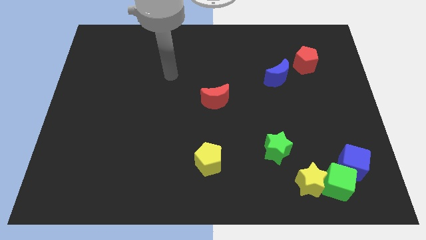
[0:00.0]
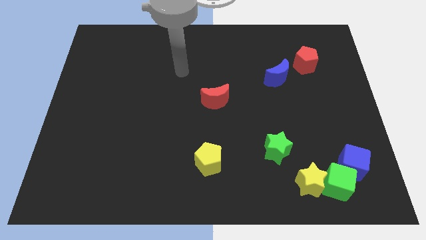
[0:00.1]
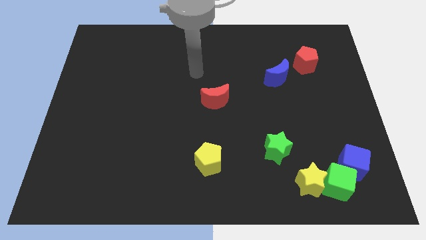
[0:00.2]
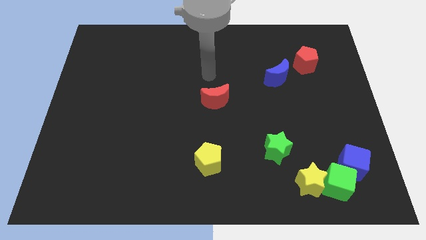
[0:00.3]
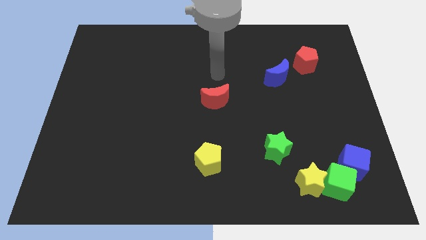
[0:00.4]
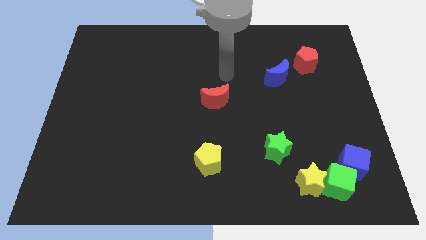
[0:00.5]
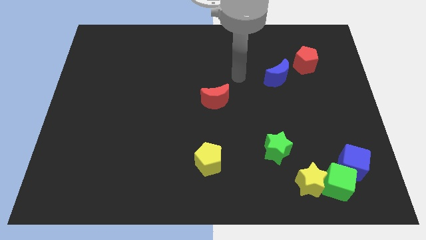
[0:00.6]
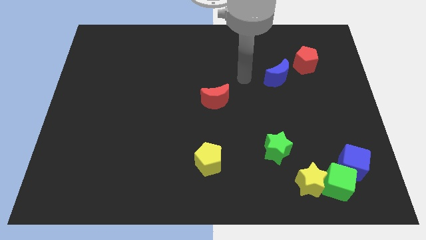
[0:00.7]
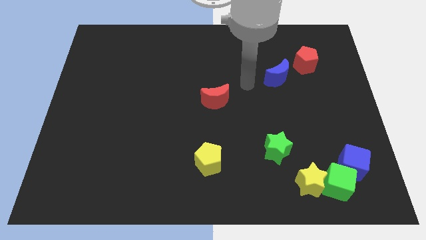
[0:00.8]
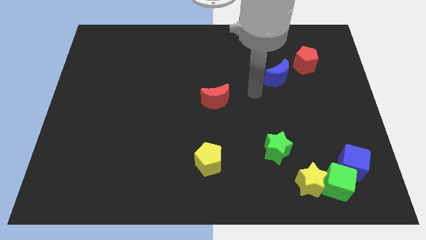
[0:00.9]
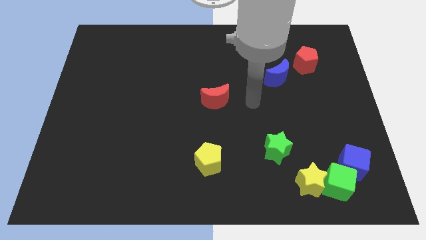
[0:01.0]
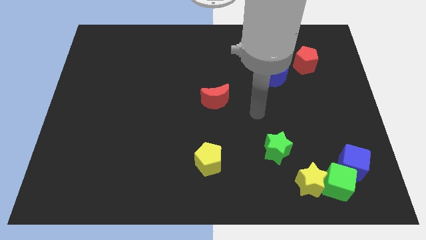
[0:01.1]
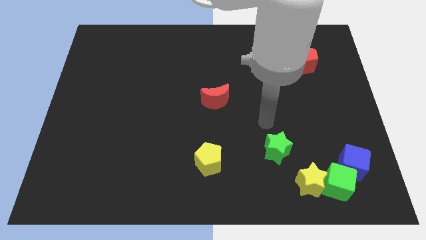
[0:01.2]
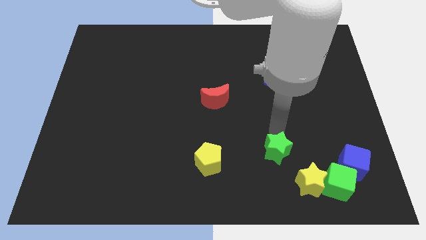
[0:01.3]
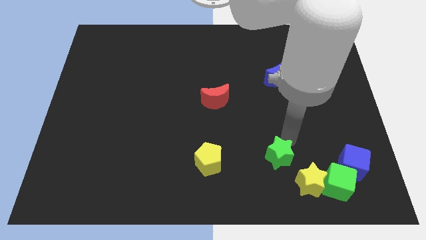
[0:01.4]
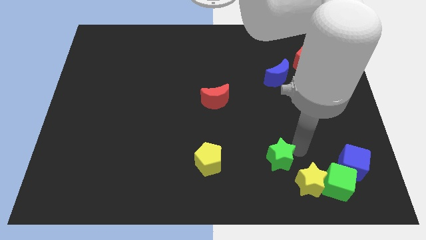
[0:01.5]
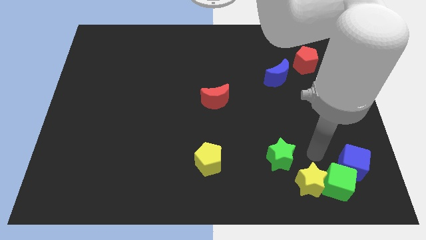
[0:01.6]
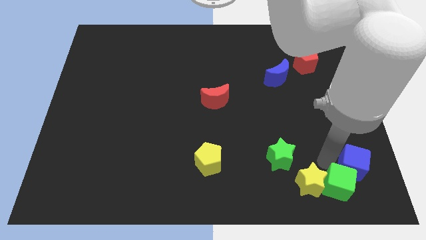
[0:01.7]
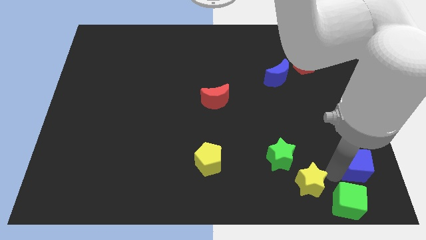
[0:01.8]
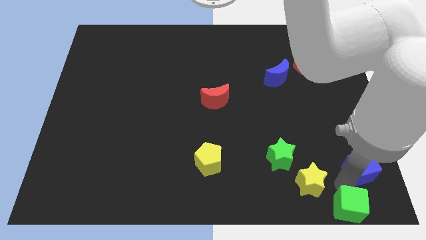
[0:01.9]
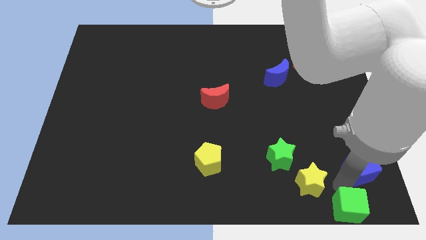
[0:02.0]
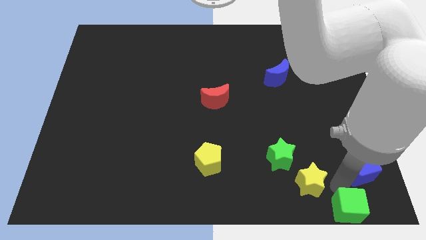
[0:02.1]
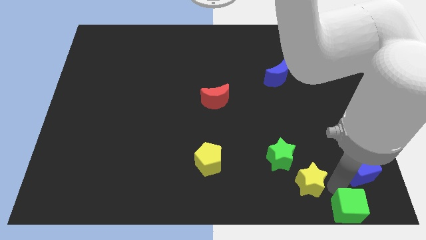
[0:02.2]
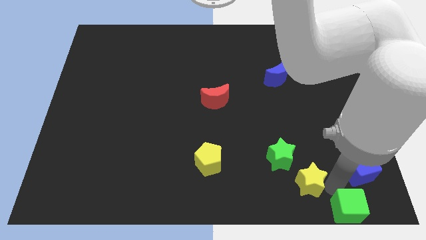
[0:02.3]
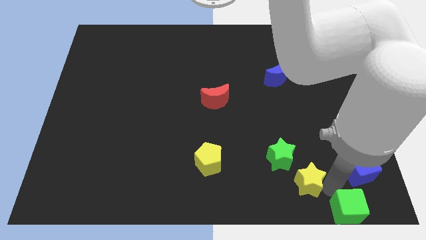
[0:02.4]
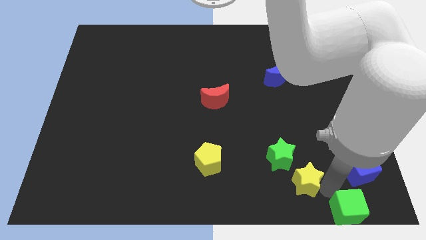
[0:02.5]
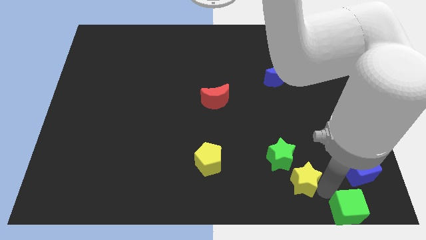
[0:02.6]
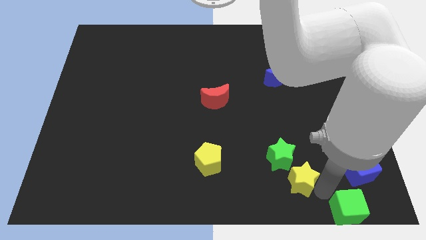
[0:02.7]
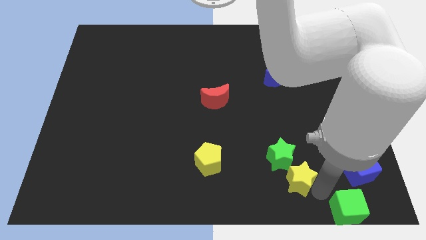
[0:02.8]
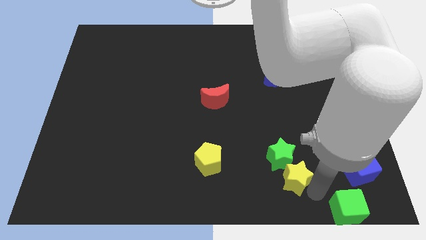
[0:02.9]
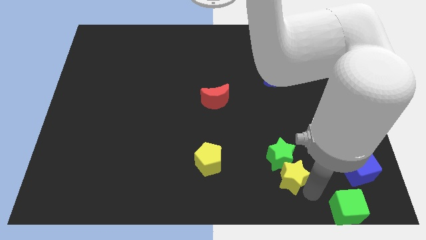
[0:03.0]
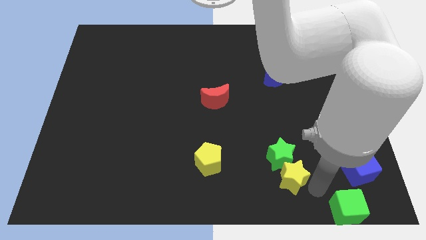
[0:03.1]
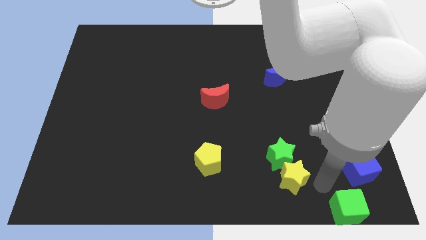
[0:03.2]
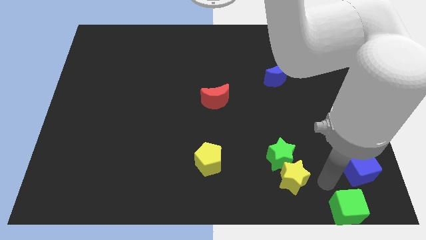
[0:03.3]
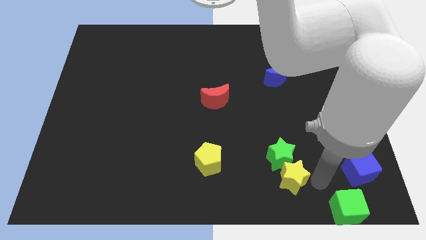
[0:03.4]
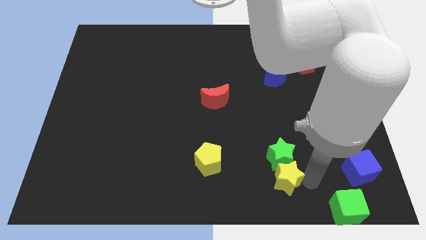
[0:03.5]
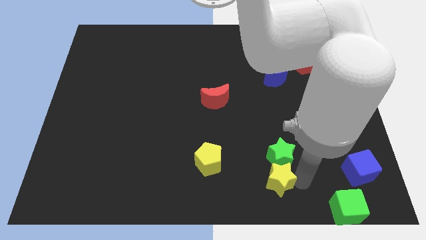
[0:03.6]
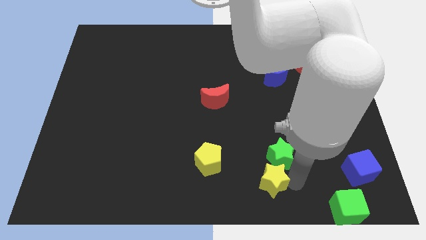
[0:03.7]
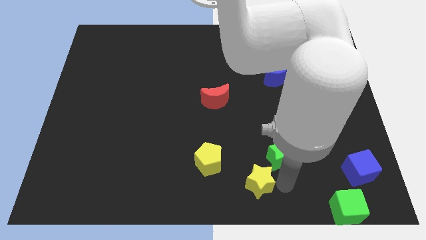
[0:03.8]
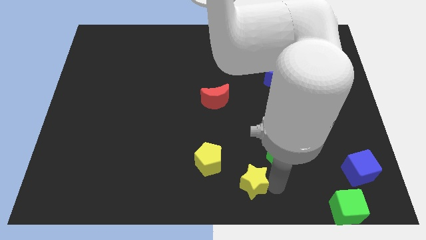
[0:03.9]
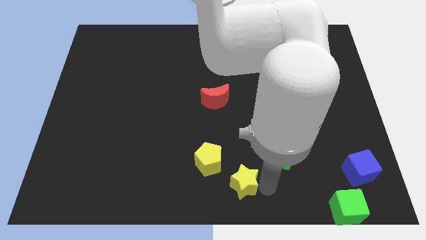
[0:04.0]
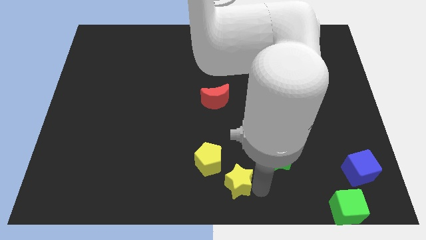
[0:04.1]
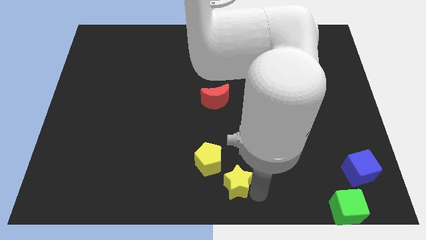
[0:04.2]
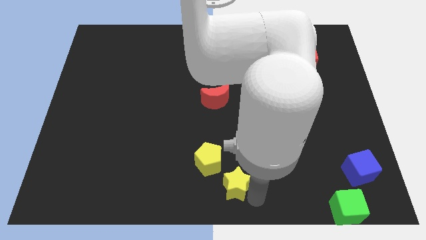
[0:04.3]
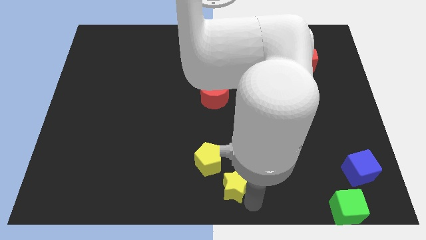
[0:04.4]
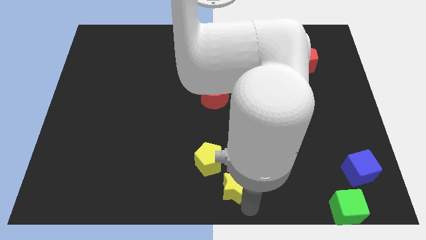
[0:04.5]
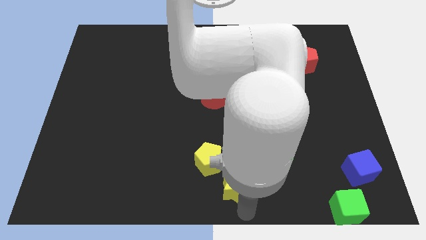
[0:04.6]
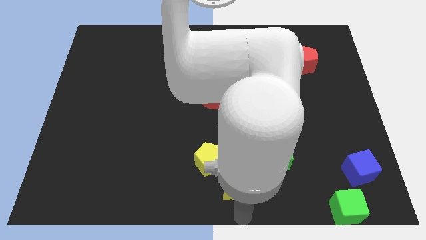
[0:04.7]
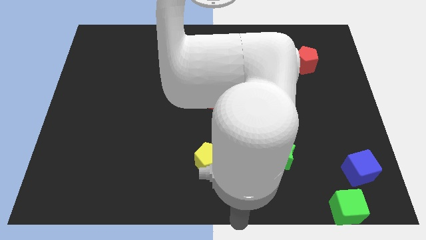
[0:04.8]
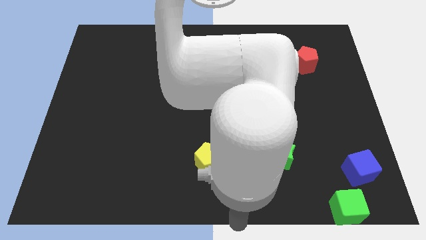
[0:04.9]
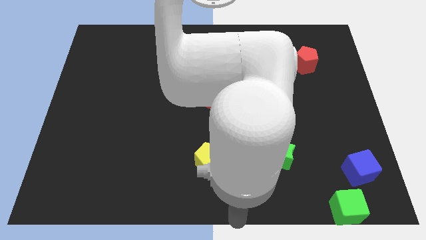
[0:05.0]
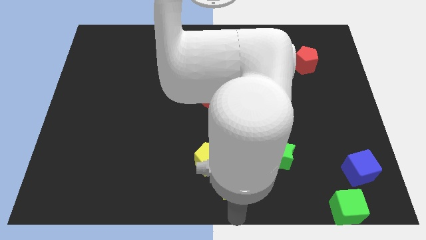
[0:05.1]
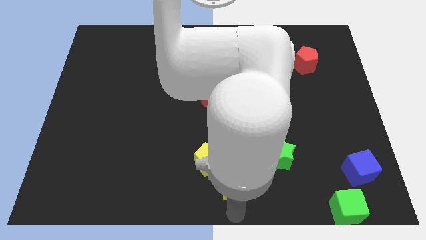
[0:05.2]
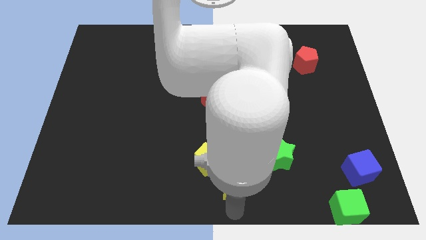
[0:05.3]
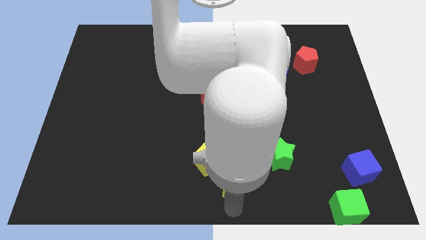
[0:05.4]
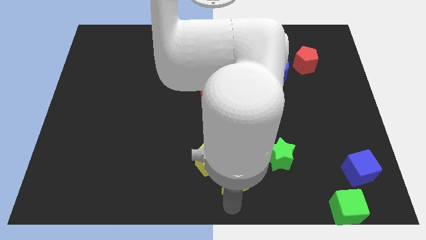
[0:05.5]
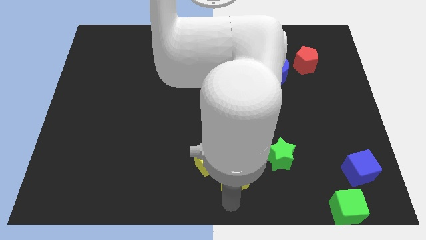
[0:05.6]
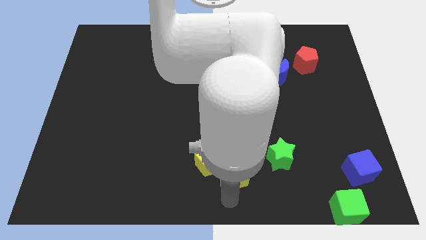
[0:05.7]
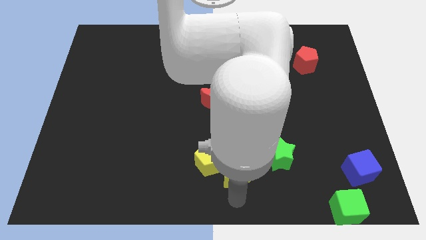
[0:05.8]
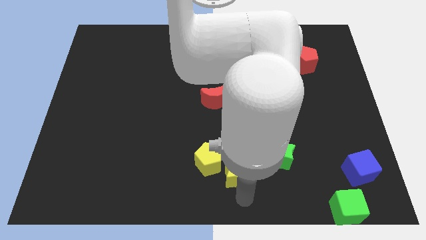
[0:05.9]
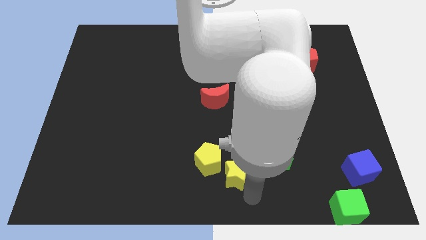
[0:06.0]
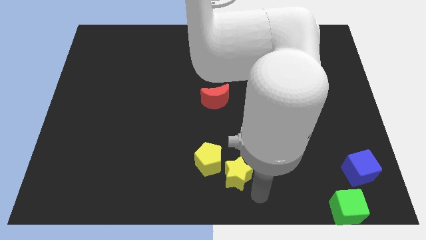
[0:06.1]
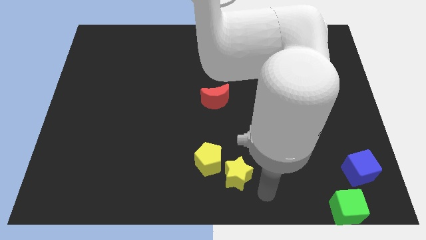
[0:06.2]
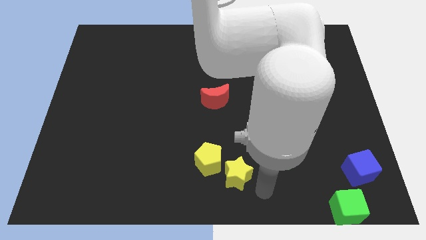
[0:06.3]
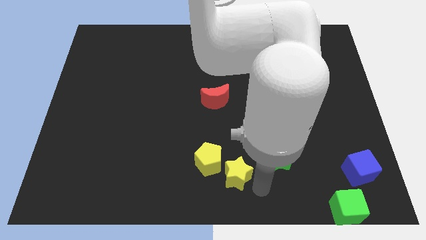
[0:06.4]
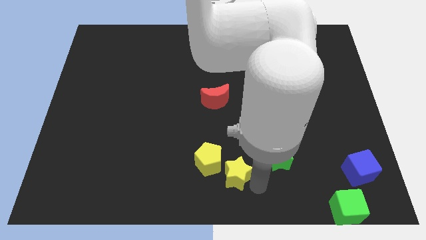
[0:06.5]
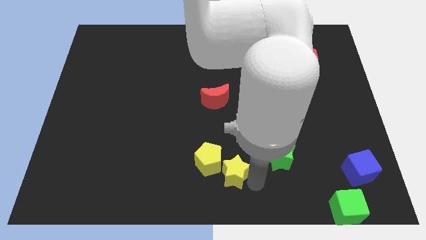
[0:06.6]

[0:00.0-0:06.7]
push the yellow star close to the yellow pentagon
